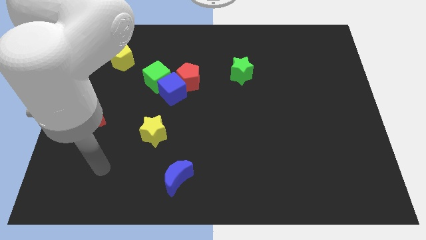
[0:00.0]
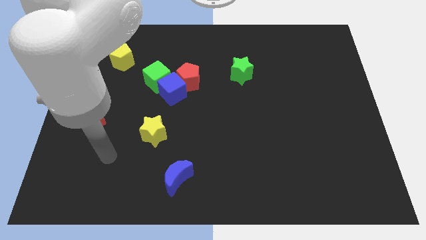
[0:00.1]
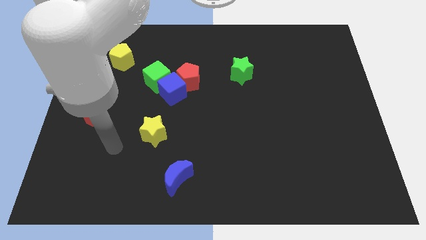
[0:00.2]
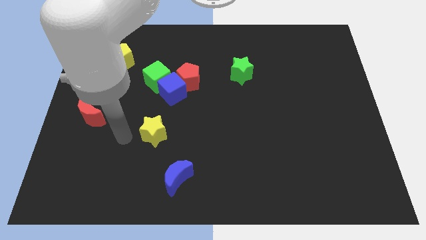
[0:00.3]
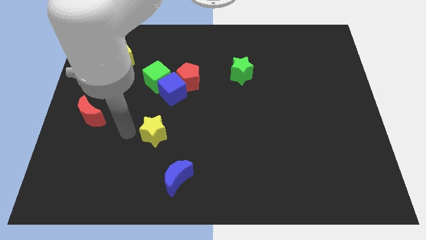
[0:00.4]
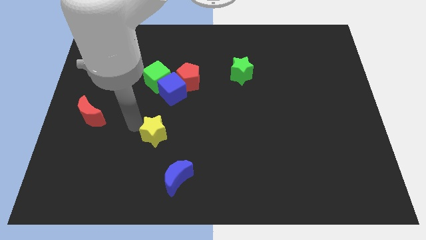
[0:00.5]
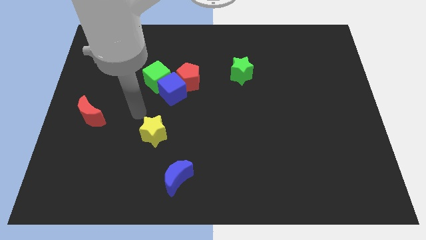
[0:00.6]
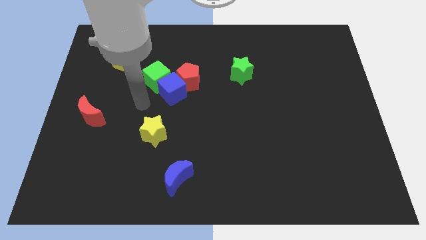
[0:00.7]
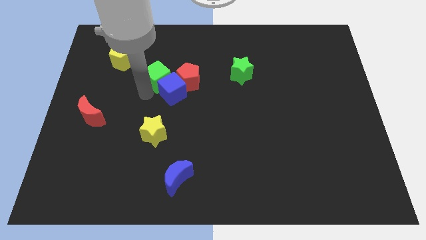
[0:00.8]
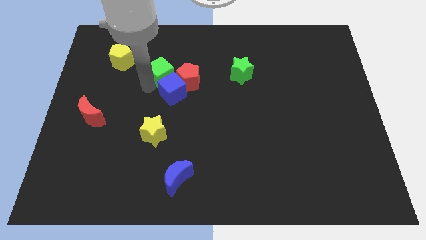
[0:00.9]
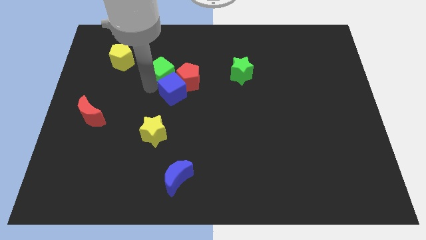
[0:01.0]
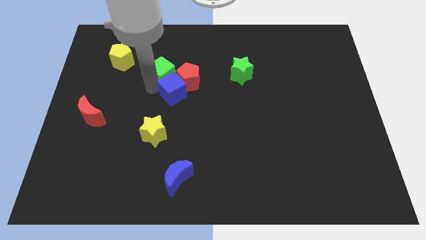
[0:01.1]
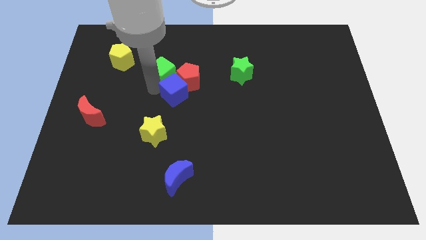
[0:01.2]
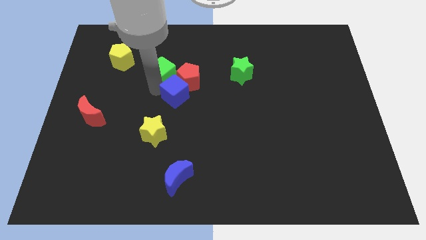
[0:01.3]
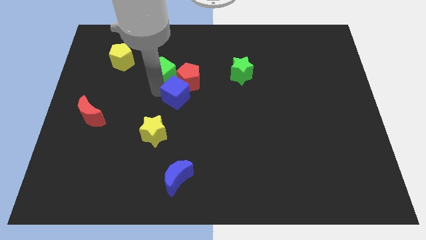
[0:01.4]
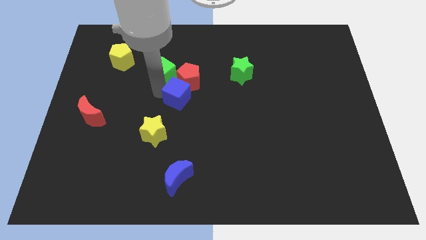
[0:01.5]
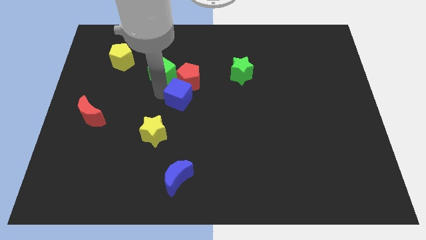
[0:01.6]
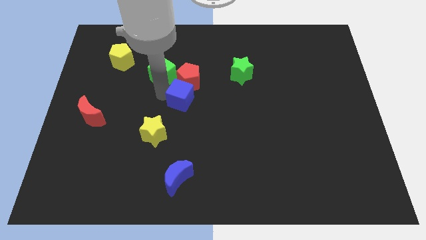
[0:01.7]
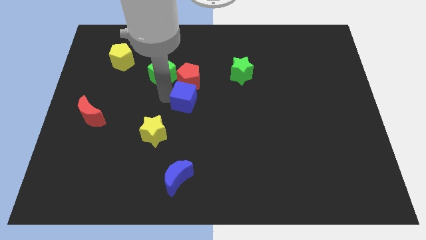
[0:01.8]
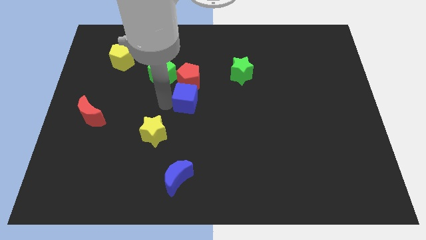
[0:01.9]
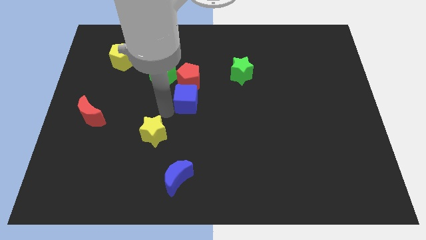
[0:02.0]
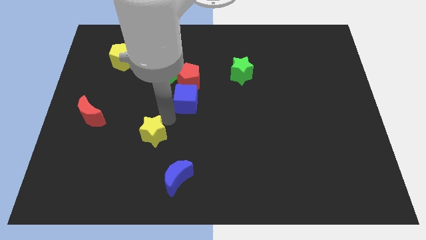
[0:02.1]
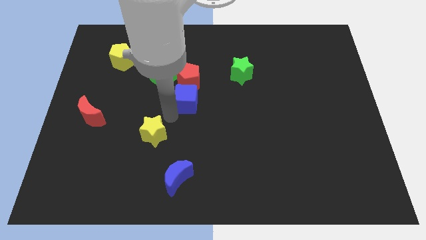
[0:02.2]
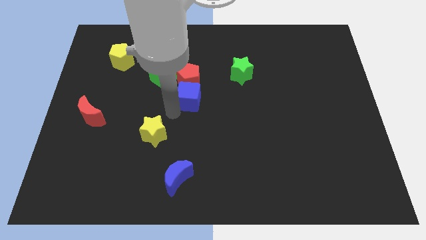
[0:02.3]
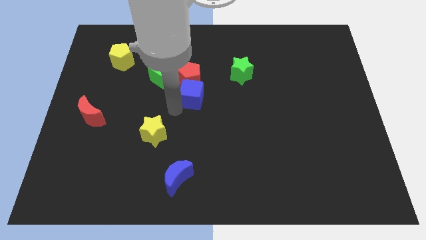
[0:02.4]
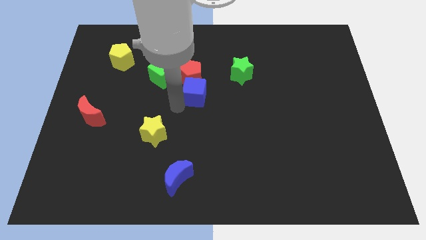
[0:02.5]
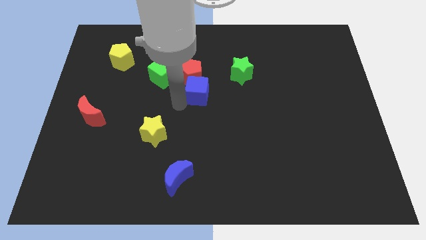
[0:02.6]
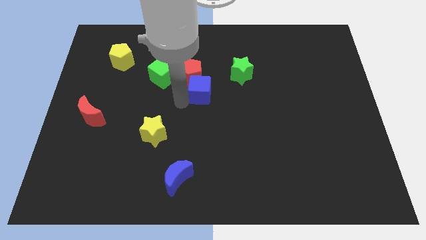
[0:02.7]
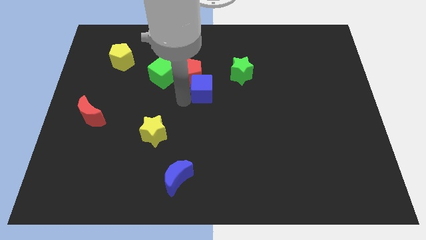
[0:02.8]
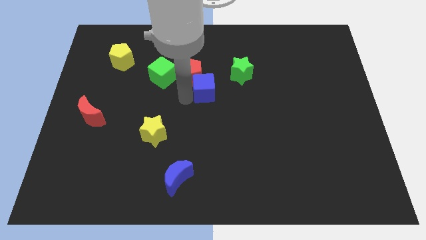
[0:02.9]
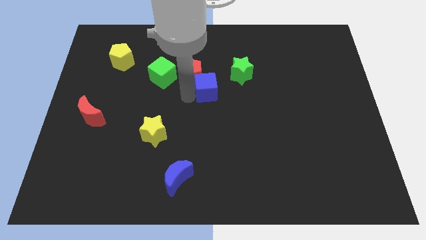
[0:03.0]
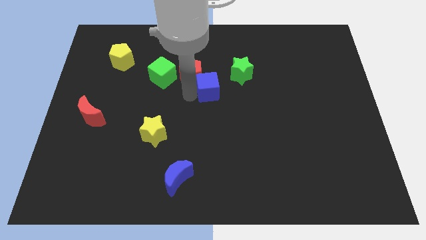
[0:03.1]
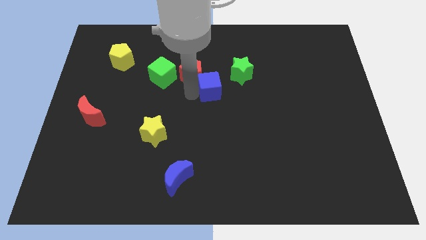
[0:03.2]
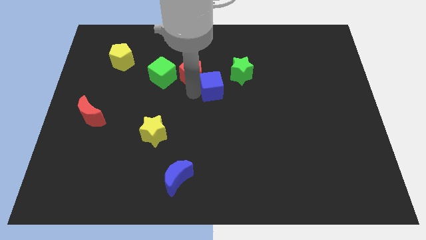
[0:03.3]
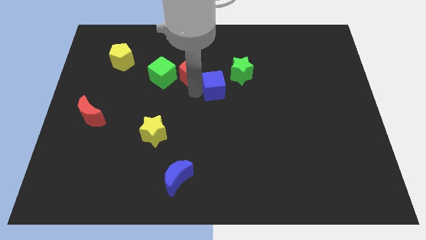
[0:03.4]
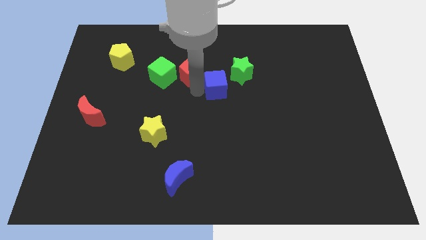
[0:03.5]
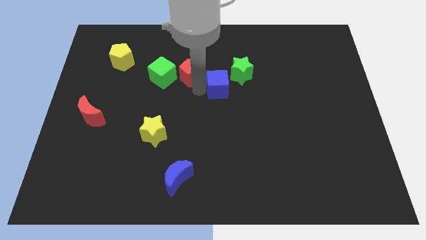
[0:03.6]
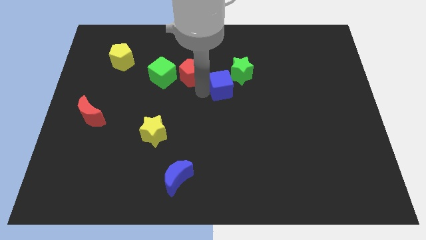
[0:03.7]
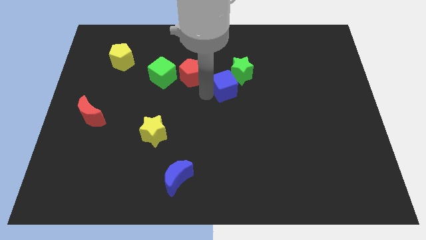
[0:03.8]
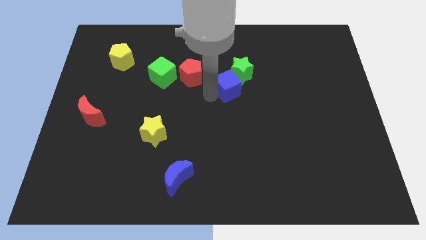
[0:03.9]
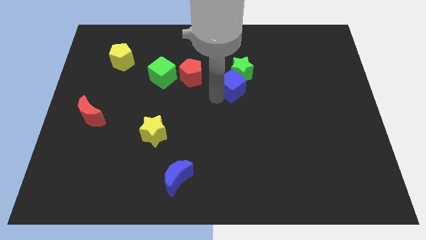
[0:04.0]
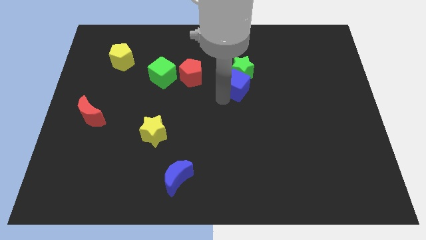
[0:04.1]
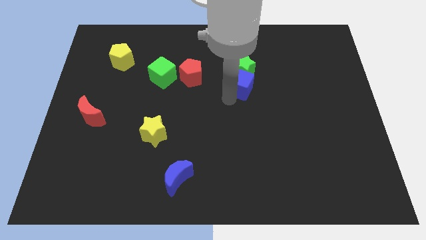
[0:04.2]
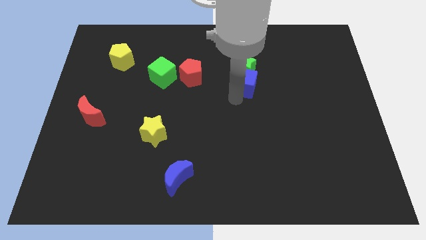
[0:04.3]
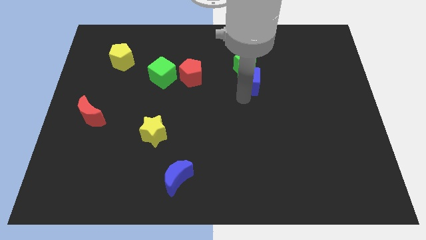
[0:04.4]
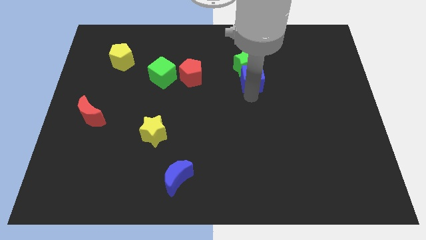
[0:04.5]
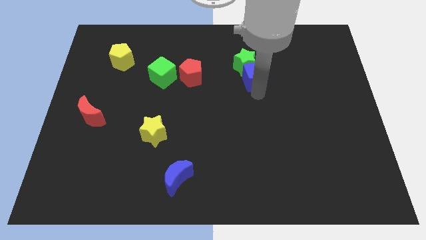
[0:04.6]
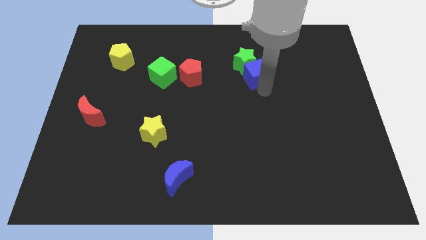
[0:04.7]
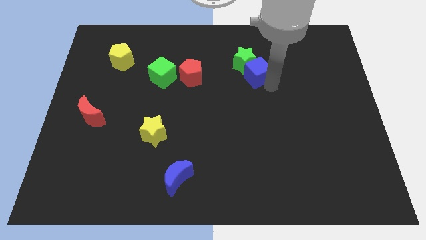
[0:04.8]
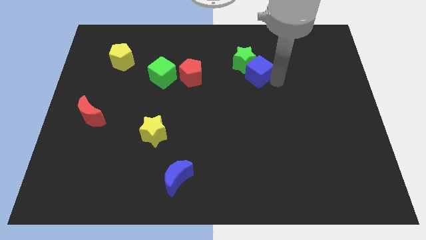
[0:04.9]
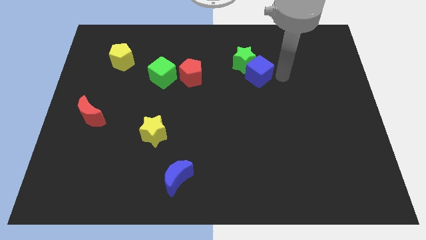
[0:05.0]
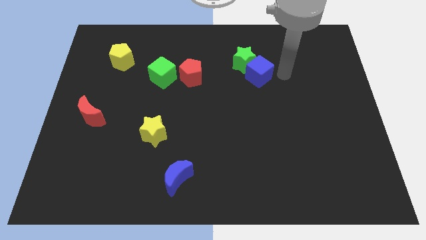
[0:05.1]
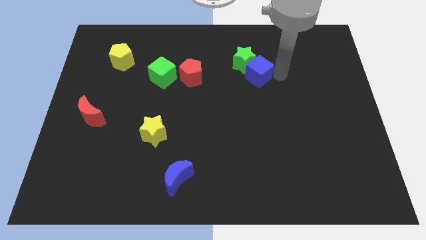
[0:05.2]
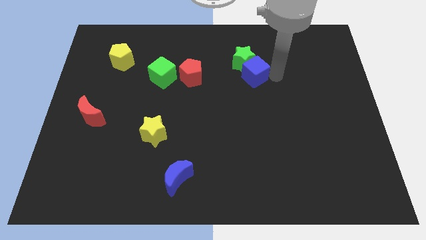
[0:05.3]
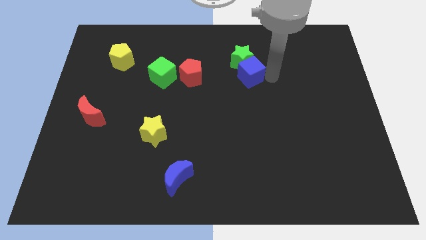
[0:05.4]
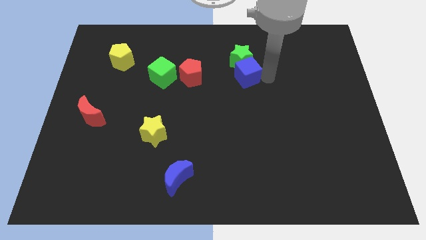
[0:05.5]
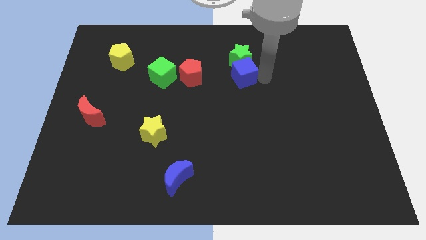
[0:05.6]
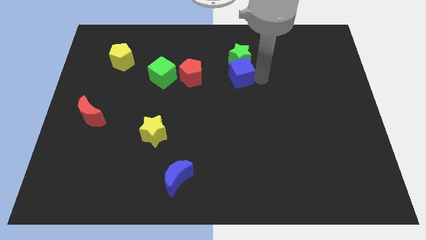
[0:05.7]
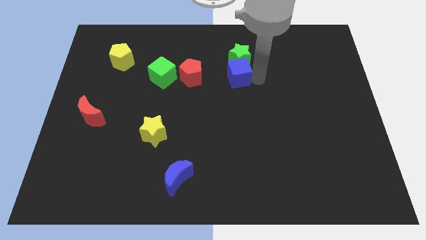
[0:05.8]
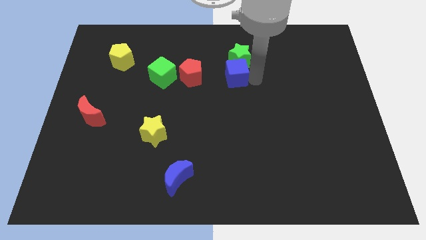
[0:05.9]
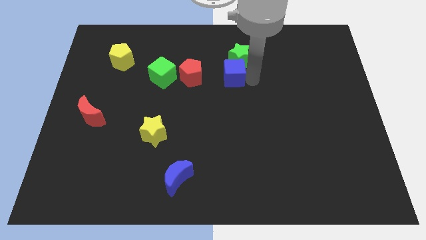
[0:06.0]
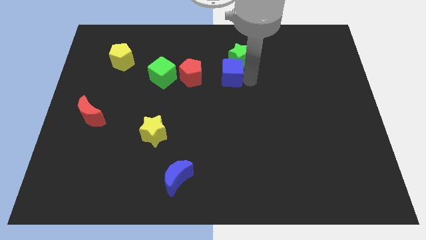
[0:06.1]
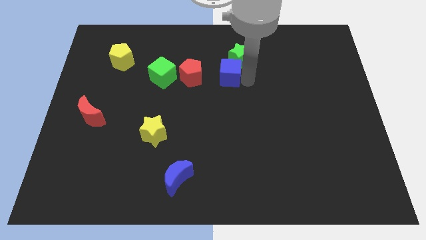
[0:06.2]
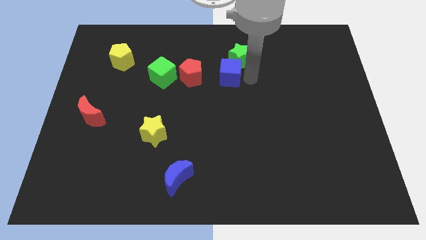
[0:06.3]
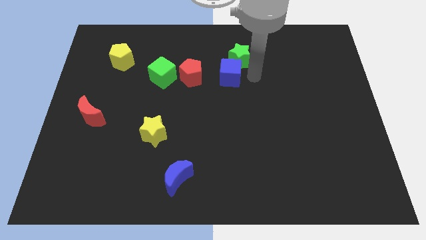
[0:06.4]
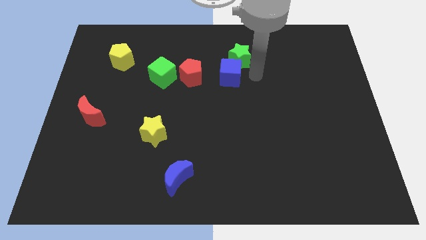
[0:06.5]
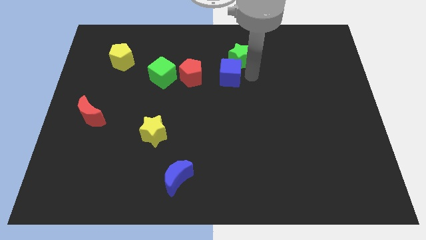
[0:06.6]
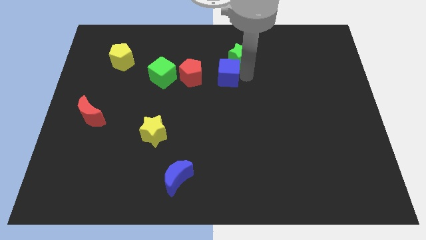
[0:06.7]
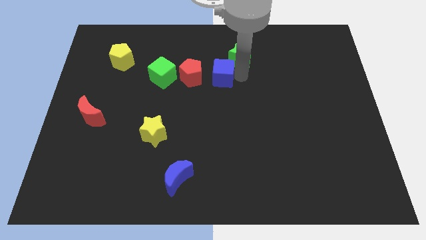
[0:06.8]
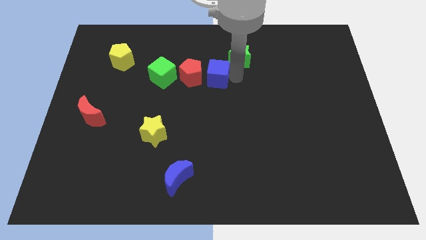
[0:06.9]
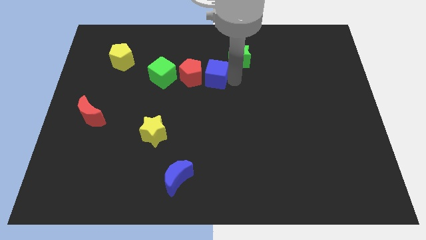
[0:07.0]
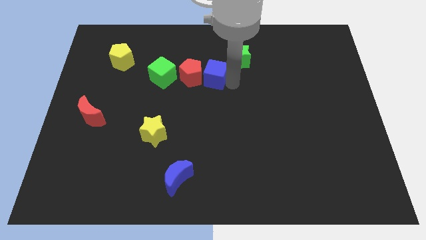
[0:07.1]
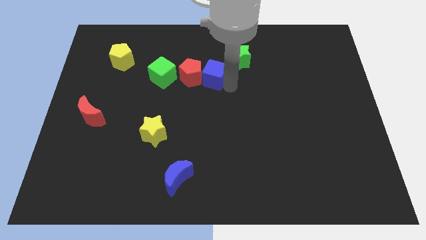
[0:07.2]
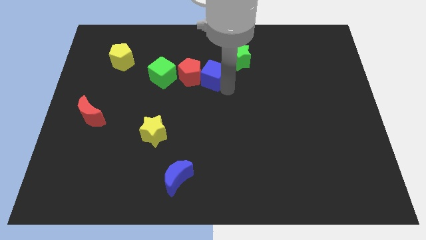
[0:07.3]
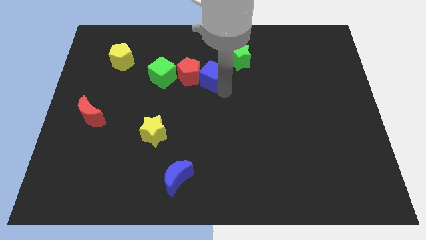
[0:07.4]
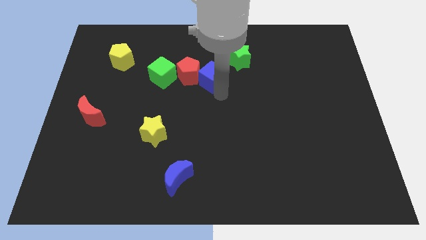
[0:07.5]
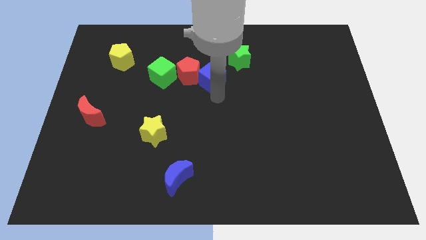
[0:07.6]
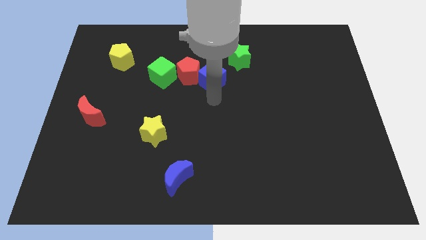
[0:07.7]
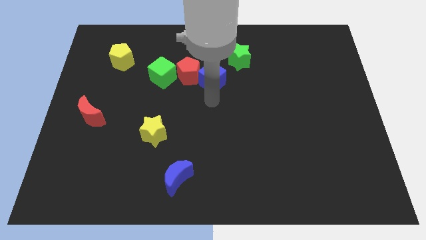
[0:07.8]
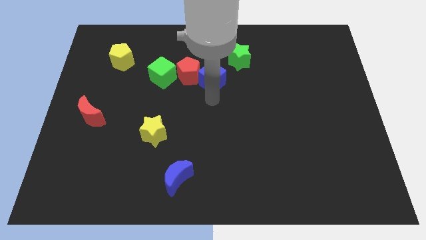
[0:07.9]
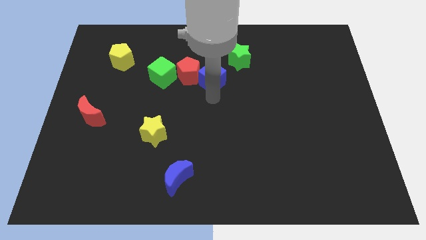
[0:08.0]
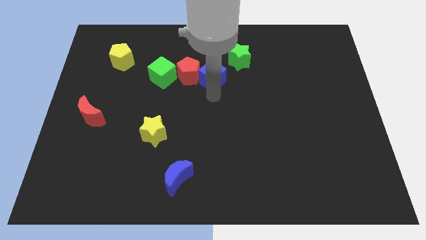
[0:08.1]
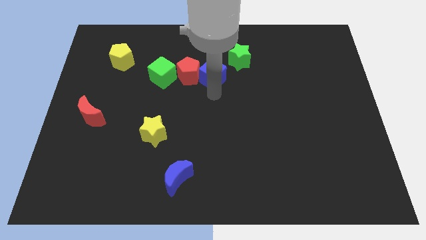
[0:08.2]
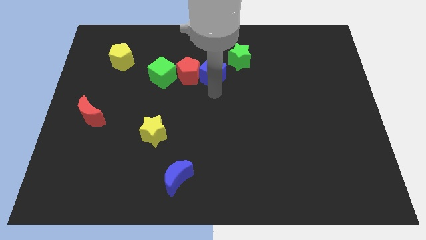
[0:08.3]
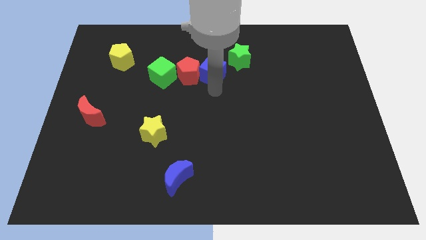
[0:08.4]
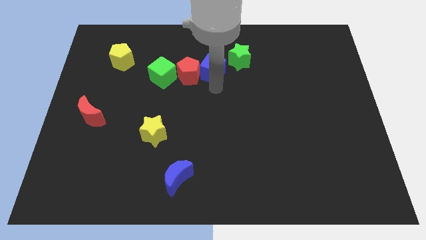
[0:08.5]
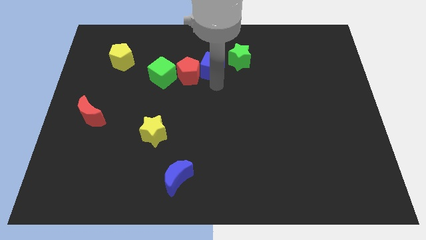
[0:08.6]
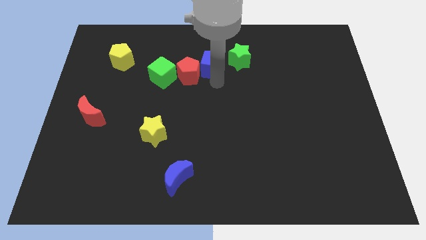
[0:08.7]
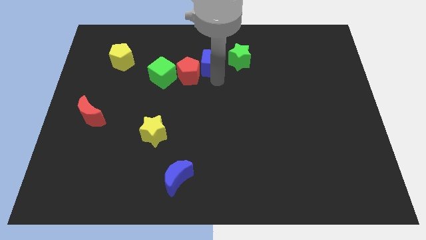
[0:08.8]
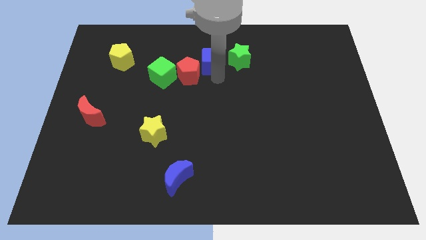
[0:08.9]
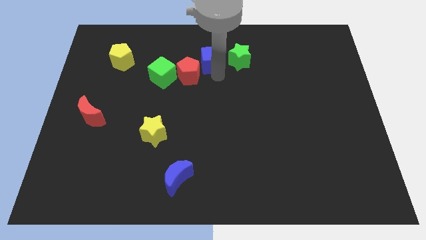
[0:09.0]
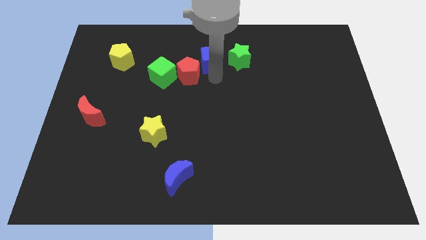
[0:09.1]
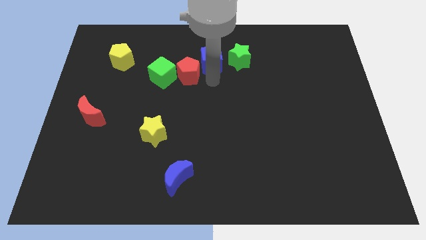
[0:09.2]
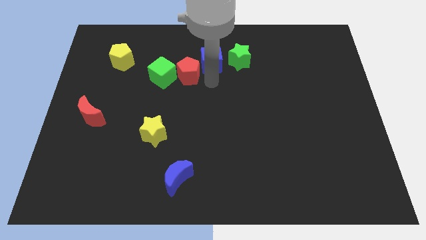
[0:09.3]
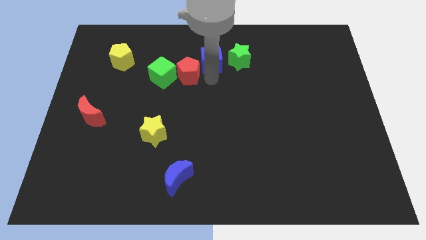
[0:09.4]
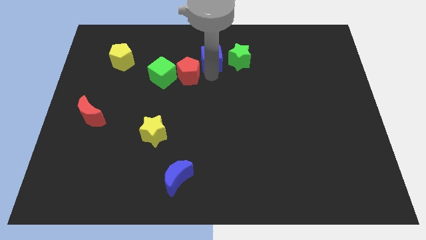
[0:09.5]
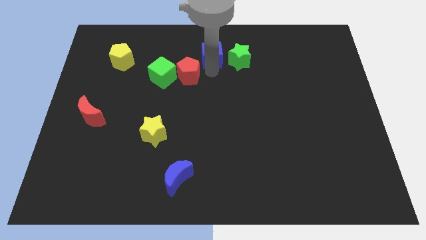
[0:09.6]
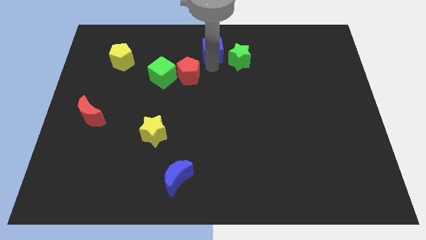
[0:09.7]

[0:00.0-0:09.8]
push the blue cube to the top
